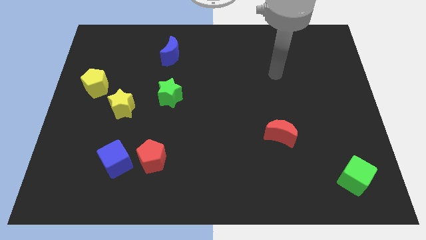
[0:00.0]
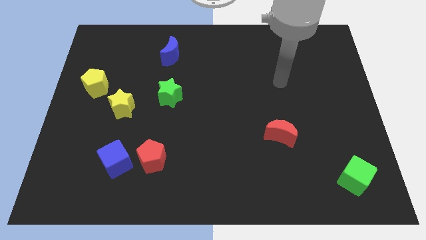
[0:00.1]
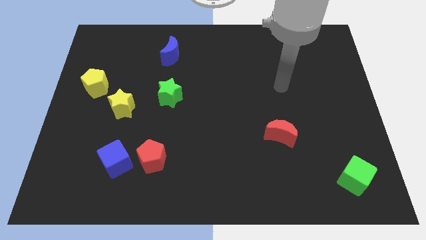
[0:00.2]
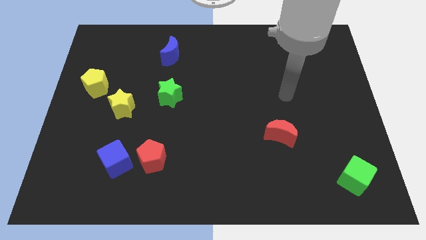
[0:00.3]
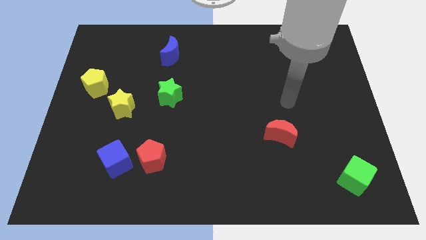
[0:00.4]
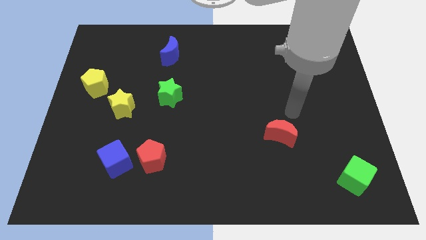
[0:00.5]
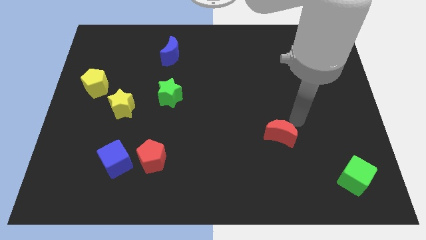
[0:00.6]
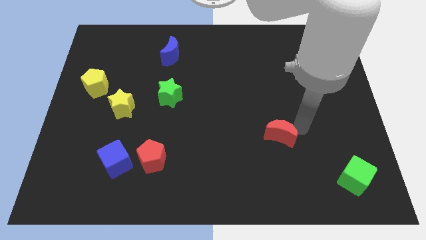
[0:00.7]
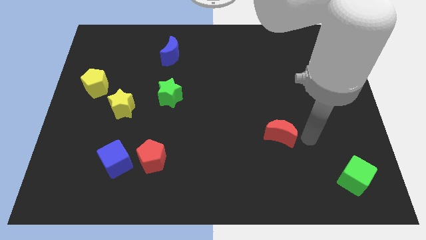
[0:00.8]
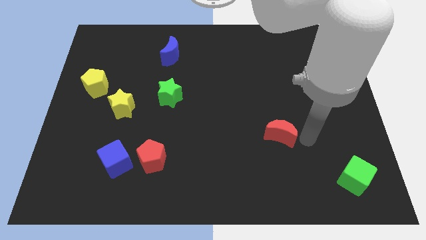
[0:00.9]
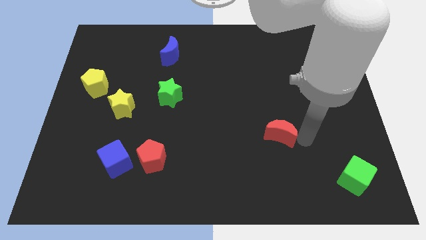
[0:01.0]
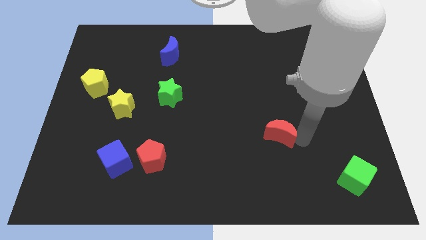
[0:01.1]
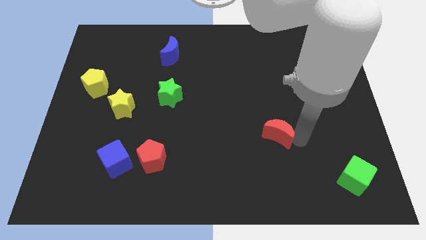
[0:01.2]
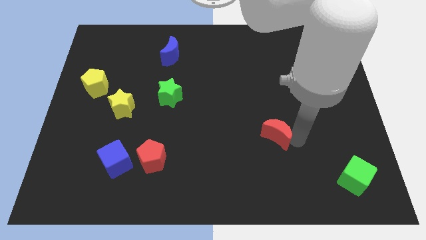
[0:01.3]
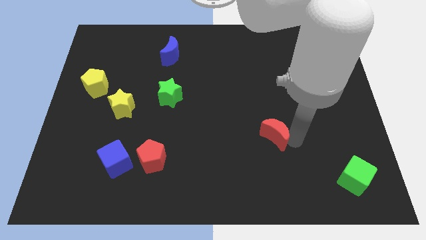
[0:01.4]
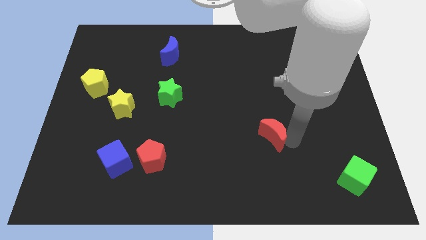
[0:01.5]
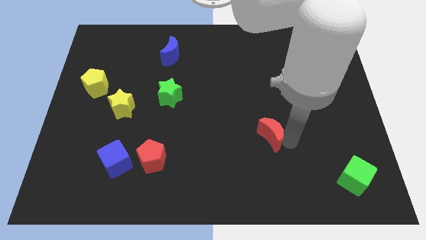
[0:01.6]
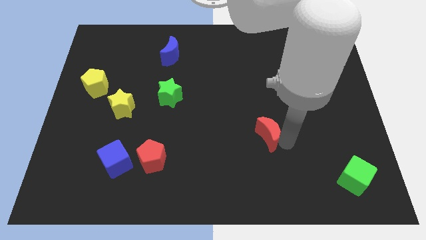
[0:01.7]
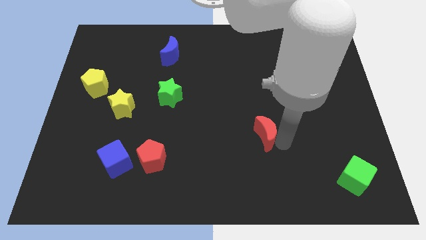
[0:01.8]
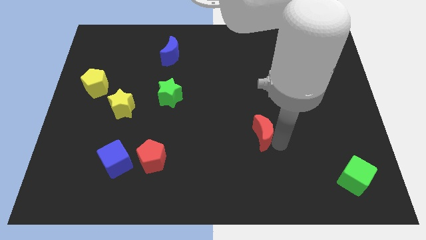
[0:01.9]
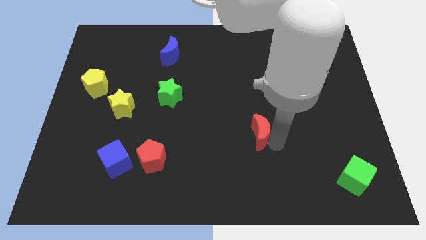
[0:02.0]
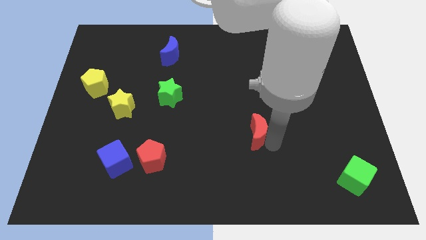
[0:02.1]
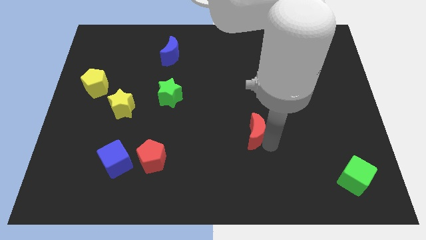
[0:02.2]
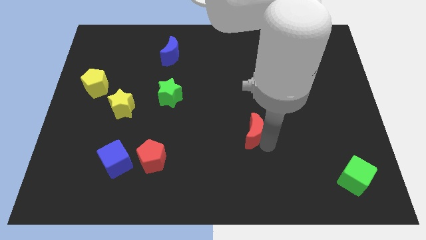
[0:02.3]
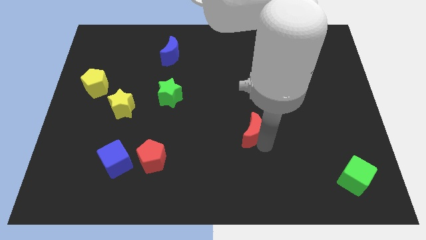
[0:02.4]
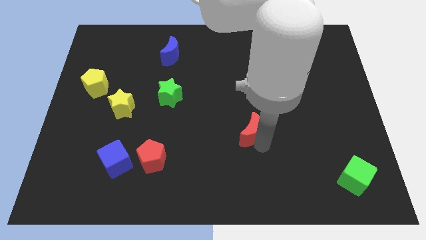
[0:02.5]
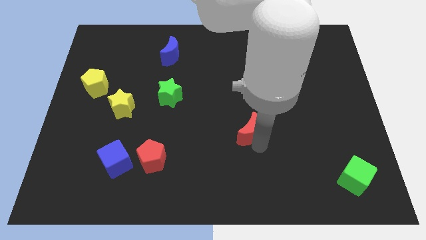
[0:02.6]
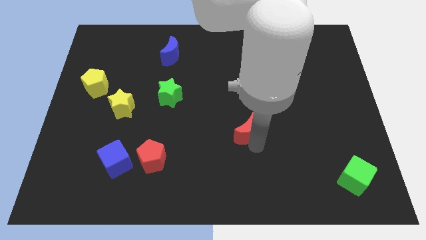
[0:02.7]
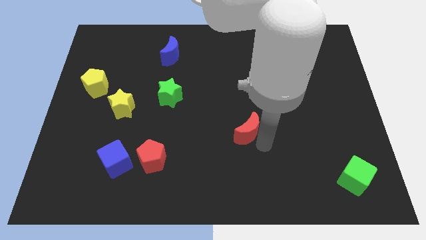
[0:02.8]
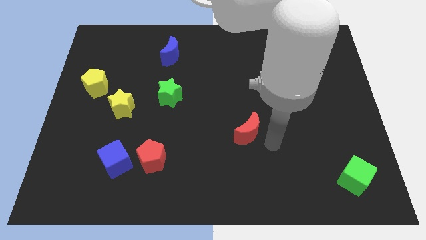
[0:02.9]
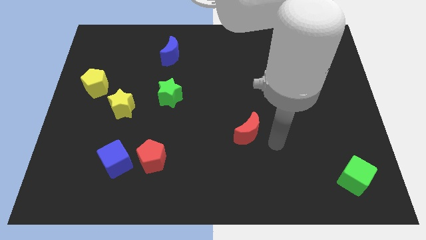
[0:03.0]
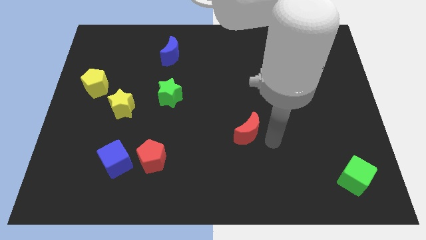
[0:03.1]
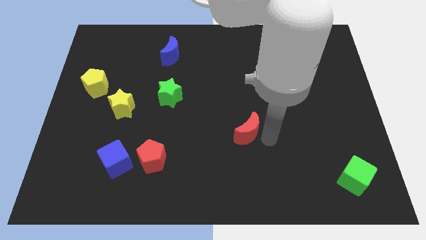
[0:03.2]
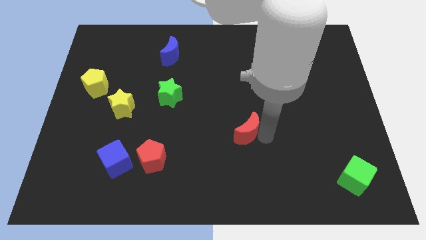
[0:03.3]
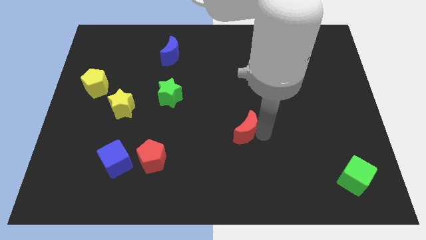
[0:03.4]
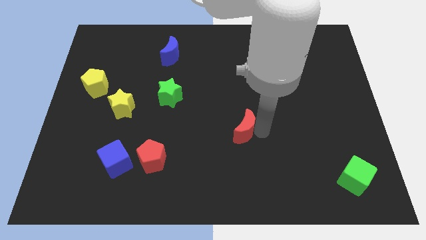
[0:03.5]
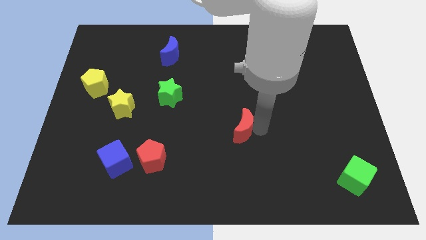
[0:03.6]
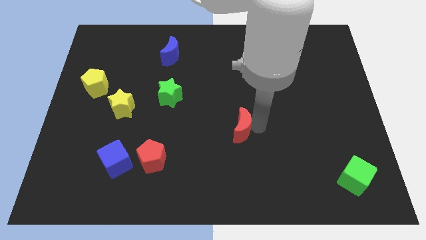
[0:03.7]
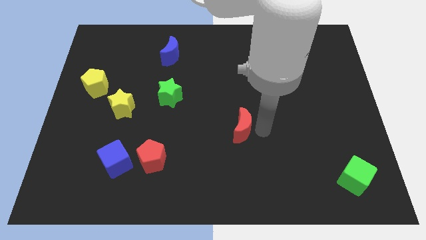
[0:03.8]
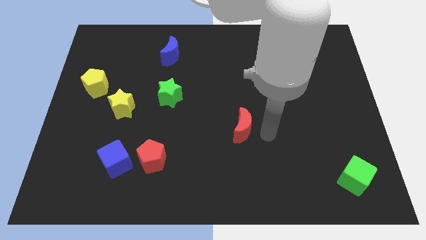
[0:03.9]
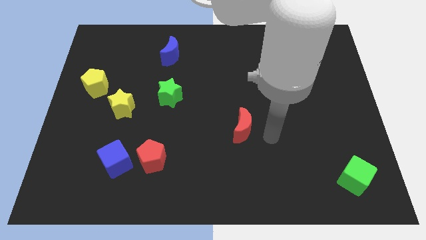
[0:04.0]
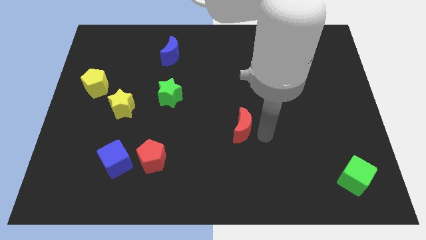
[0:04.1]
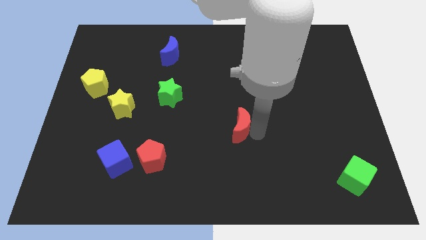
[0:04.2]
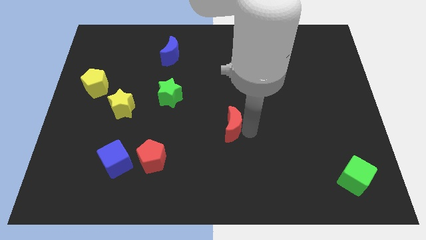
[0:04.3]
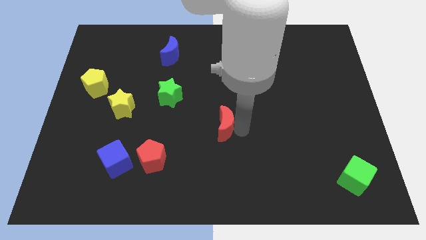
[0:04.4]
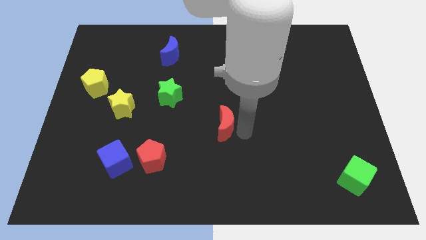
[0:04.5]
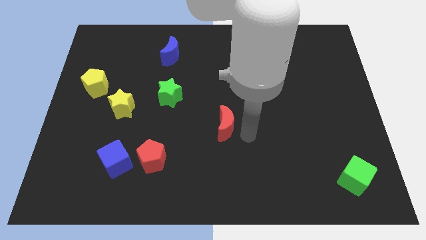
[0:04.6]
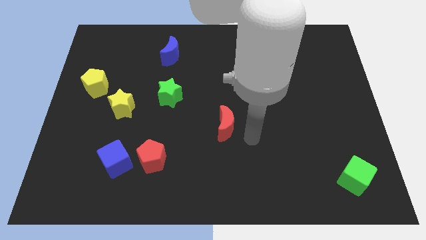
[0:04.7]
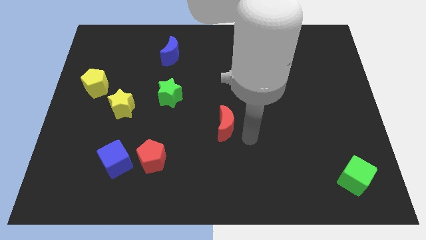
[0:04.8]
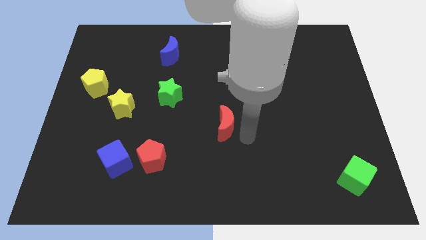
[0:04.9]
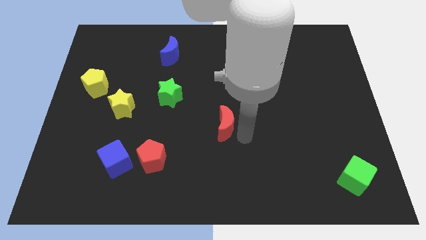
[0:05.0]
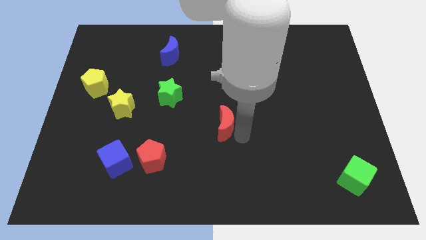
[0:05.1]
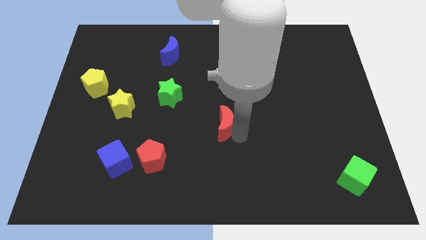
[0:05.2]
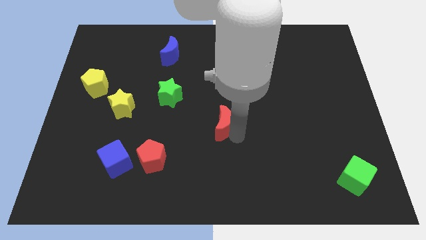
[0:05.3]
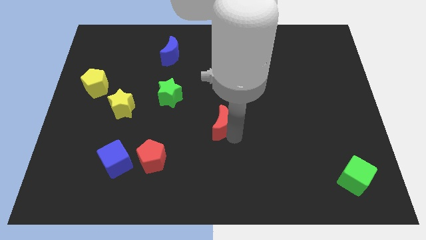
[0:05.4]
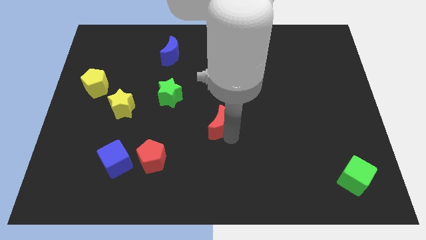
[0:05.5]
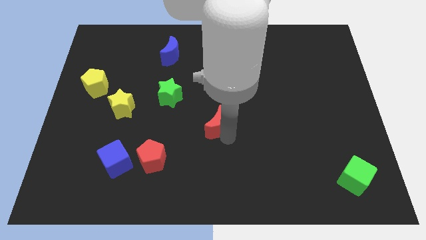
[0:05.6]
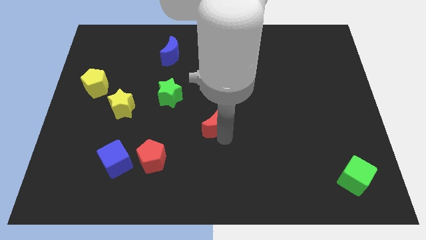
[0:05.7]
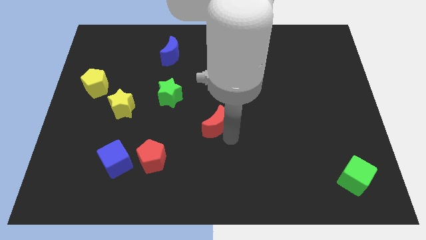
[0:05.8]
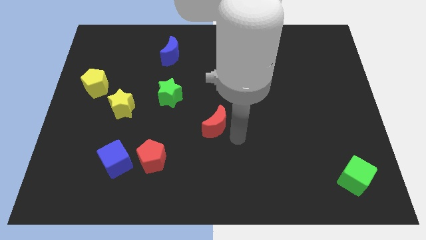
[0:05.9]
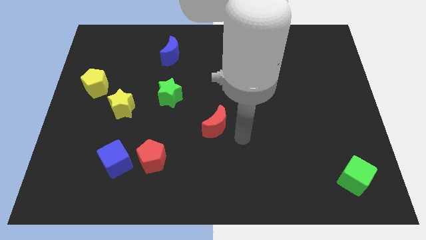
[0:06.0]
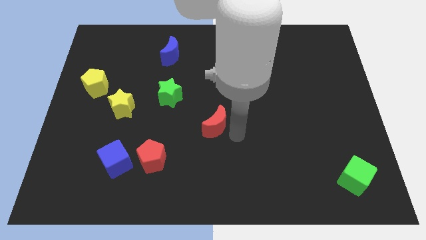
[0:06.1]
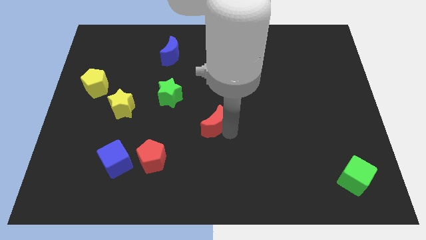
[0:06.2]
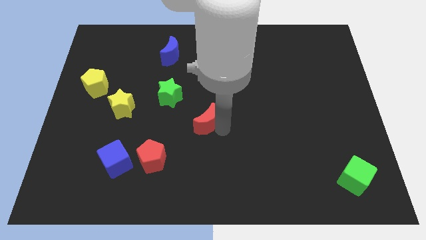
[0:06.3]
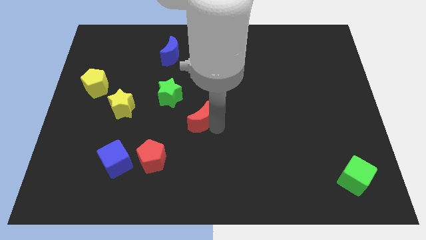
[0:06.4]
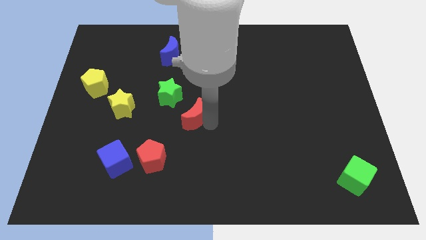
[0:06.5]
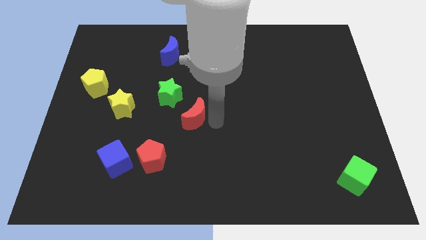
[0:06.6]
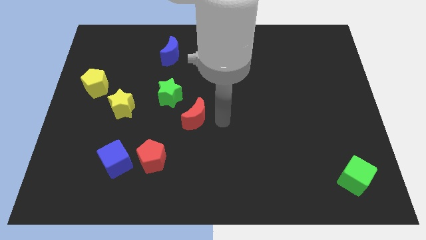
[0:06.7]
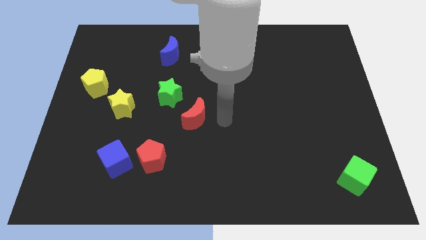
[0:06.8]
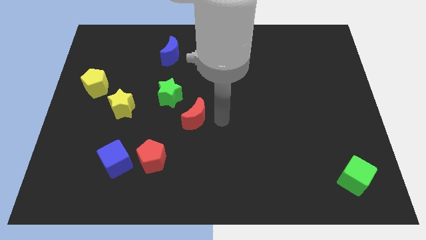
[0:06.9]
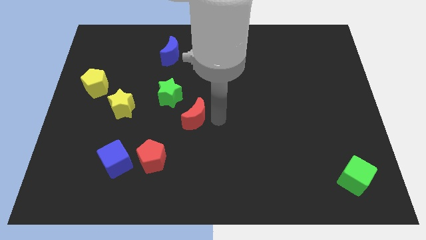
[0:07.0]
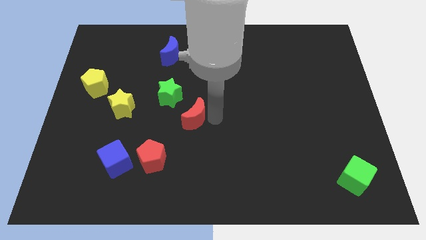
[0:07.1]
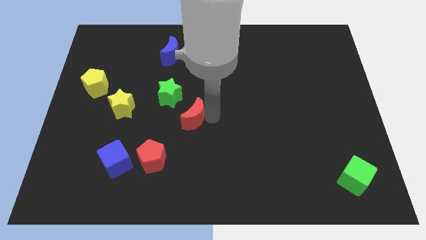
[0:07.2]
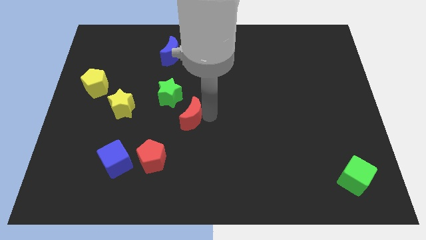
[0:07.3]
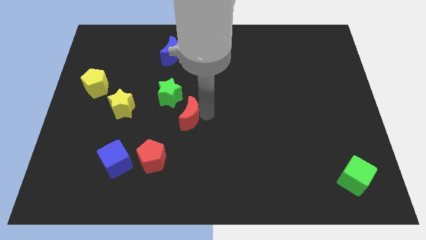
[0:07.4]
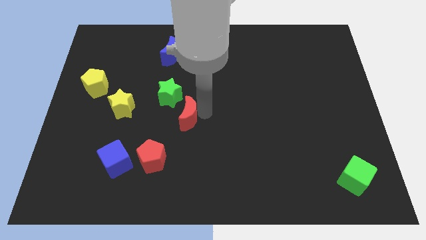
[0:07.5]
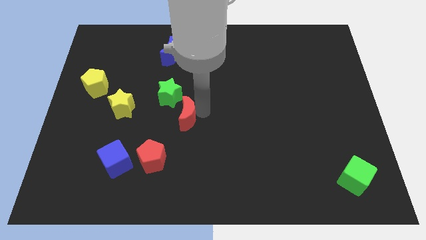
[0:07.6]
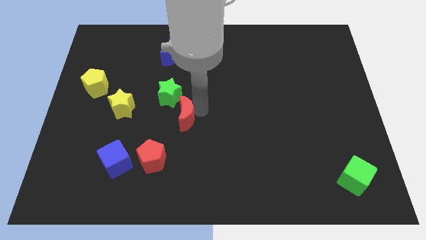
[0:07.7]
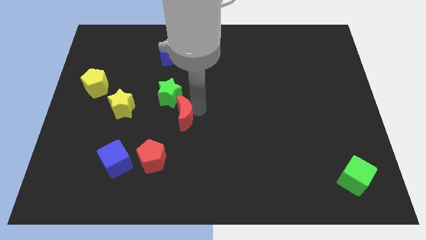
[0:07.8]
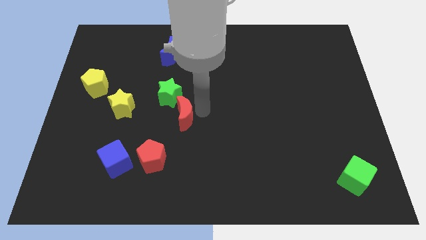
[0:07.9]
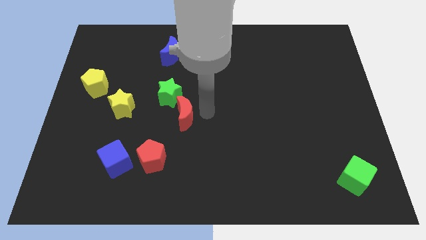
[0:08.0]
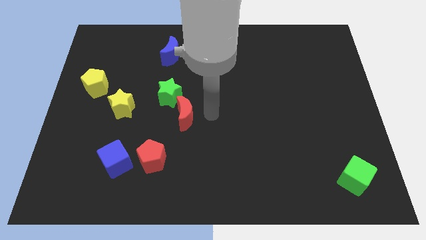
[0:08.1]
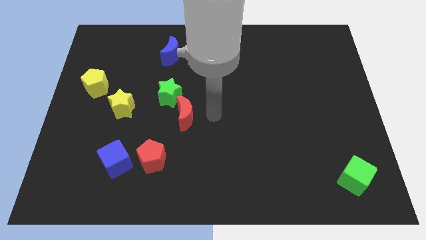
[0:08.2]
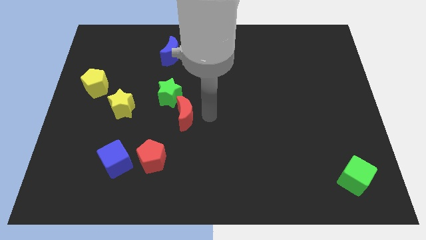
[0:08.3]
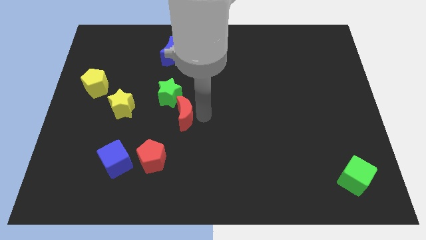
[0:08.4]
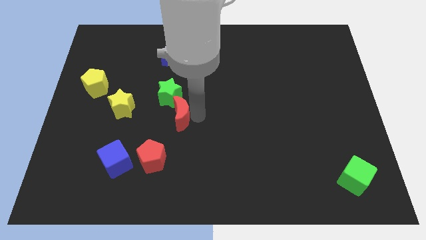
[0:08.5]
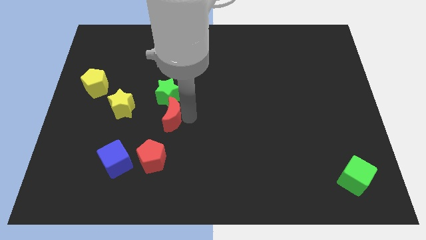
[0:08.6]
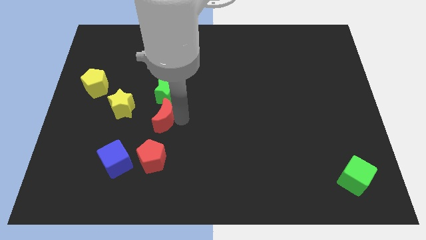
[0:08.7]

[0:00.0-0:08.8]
slide the red moon to the bottom left of the green star
